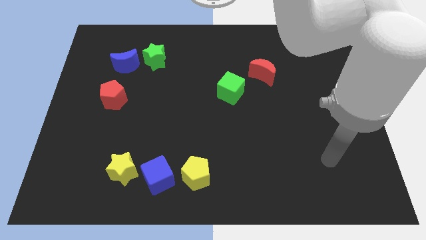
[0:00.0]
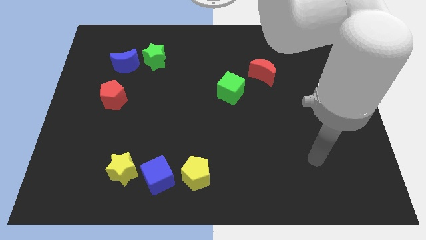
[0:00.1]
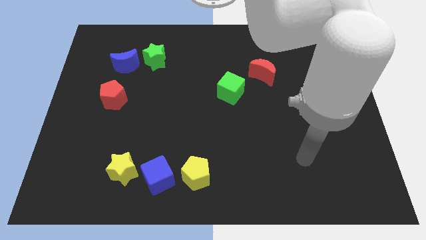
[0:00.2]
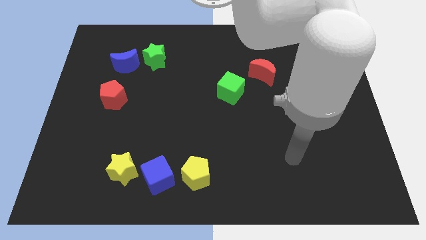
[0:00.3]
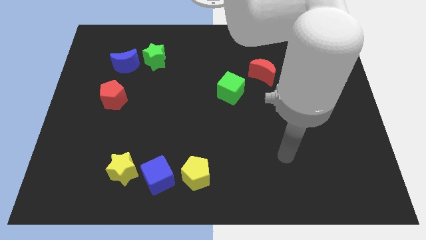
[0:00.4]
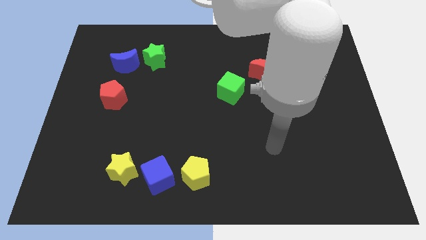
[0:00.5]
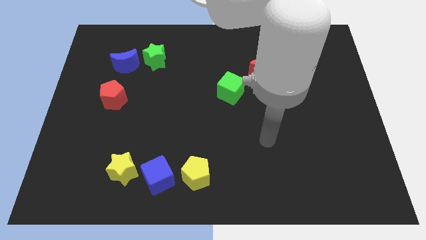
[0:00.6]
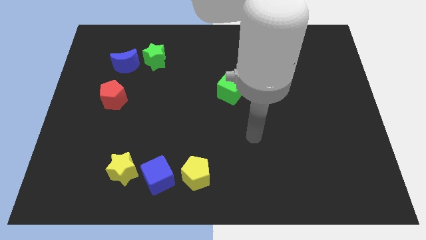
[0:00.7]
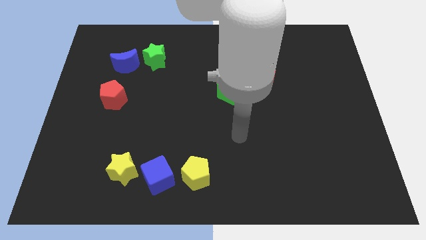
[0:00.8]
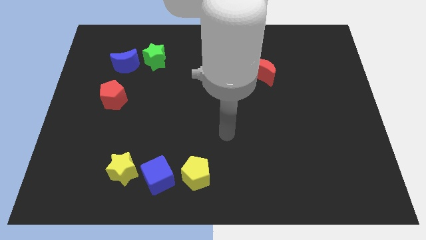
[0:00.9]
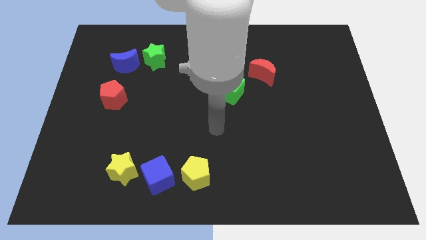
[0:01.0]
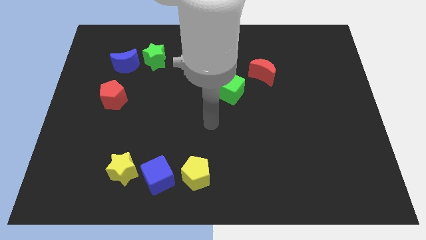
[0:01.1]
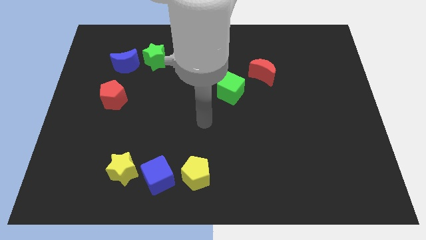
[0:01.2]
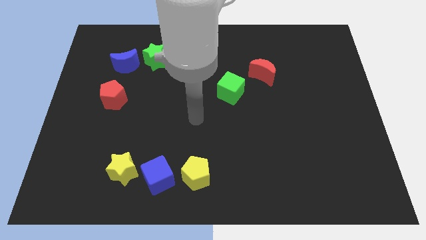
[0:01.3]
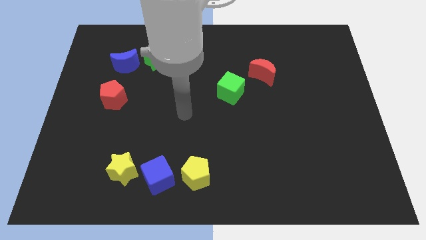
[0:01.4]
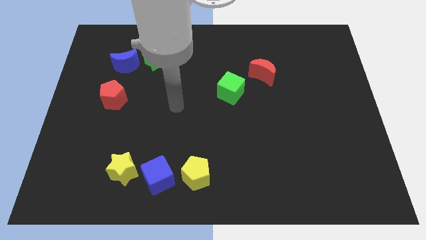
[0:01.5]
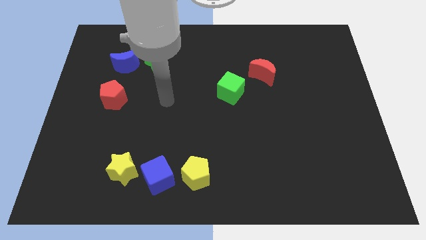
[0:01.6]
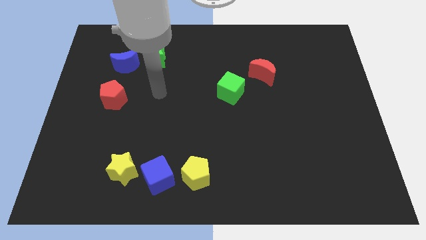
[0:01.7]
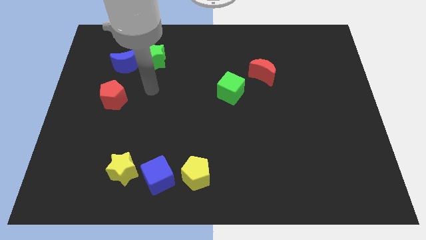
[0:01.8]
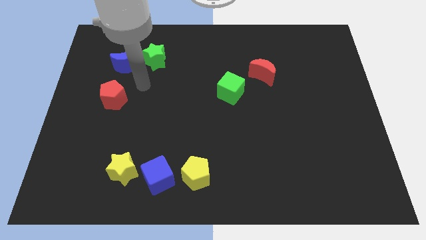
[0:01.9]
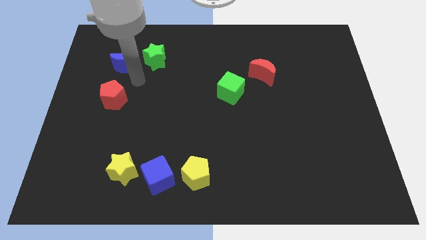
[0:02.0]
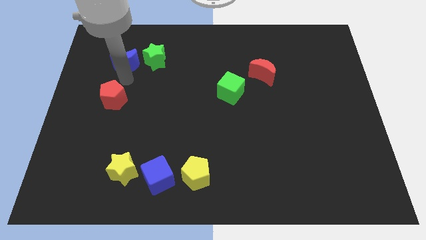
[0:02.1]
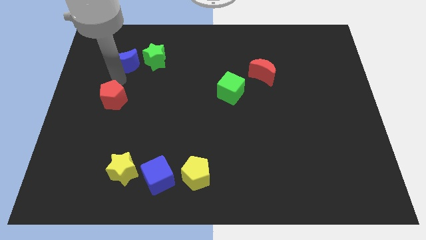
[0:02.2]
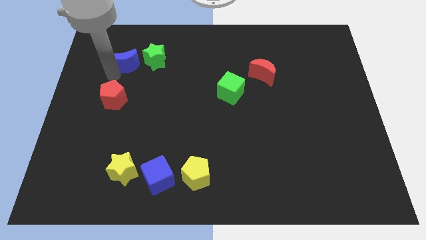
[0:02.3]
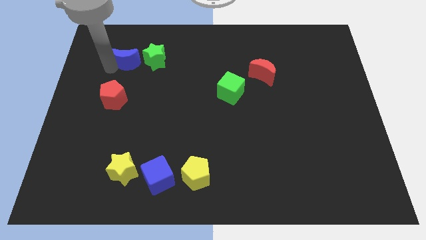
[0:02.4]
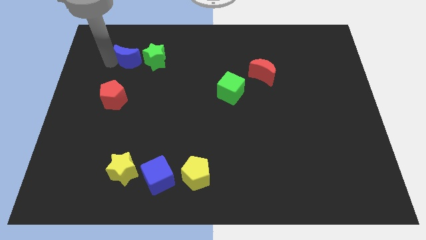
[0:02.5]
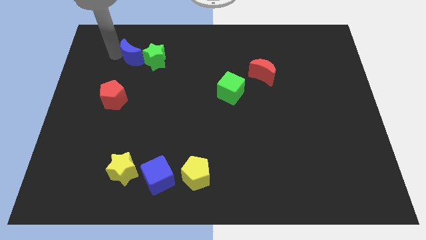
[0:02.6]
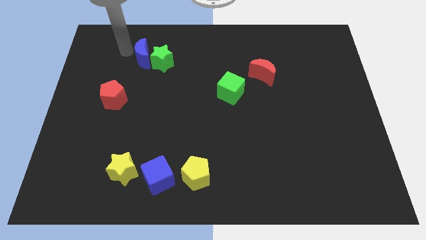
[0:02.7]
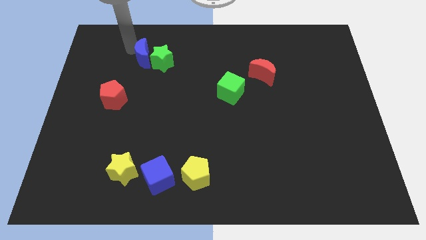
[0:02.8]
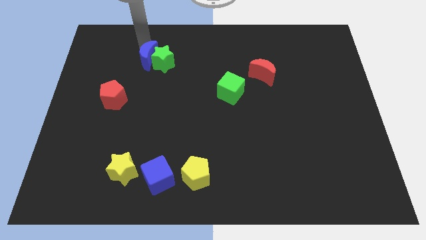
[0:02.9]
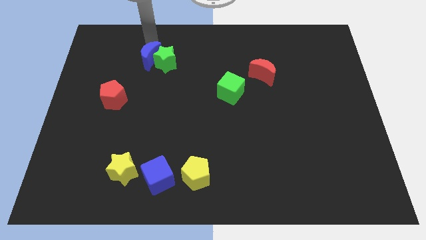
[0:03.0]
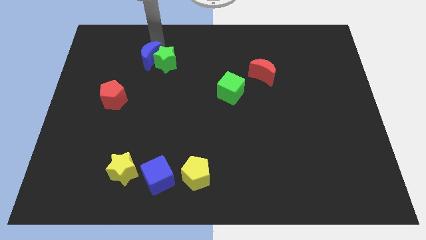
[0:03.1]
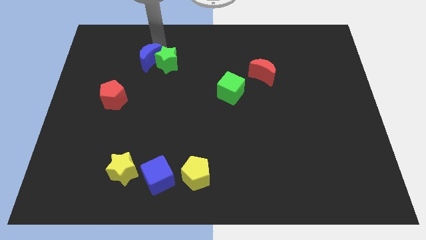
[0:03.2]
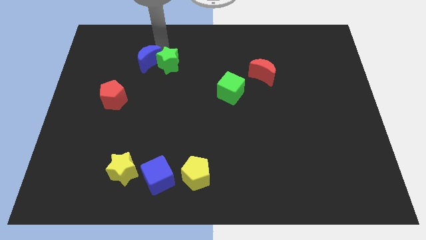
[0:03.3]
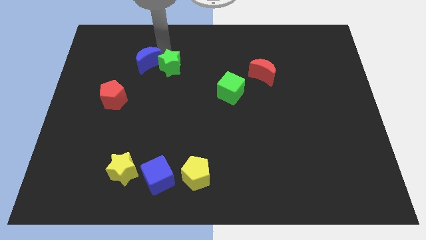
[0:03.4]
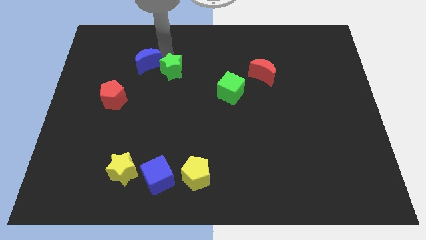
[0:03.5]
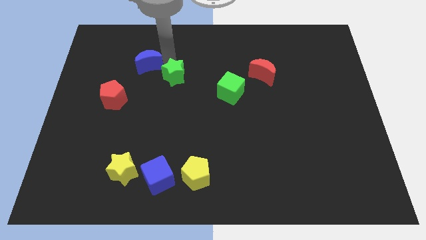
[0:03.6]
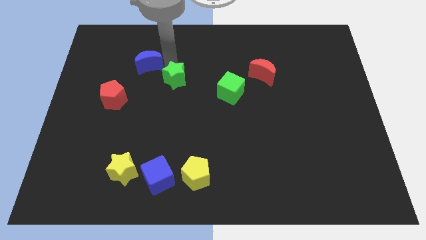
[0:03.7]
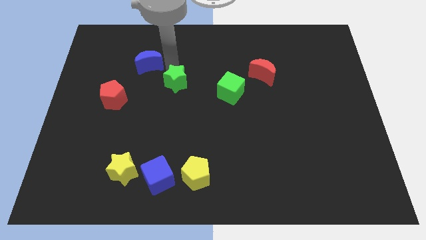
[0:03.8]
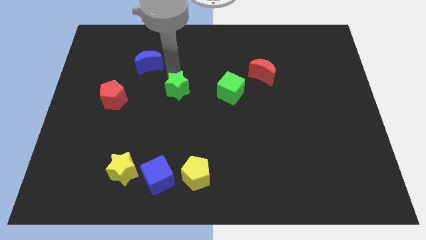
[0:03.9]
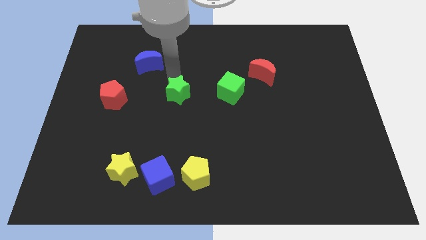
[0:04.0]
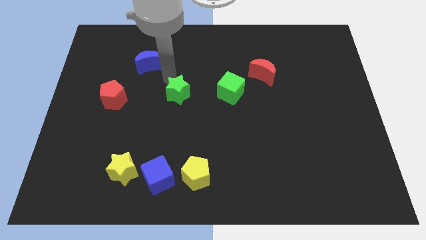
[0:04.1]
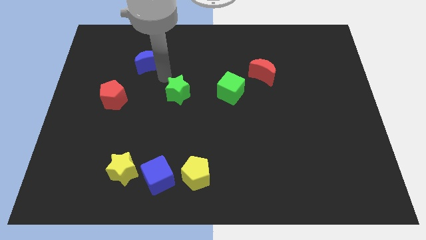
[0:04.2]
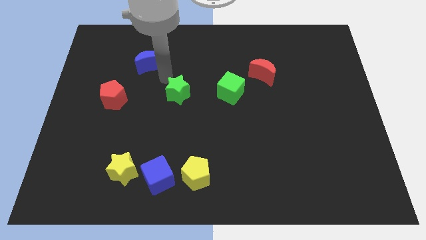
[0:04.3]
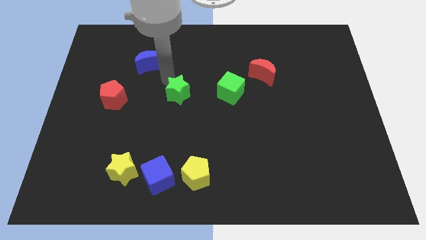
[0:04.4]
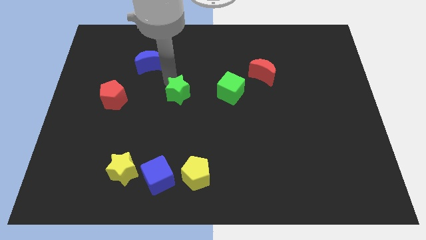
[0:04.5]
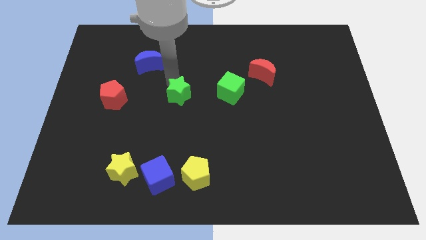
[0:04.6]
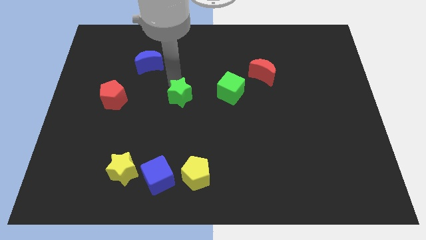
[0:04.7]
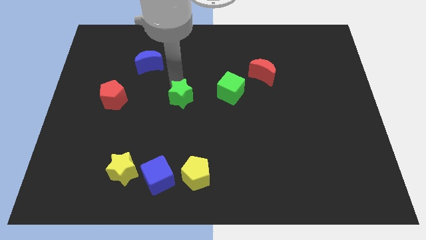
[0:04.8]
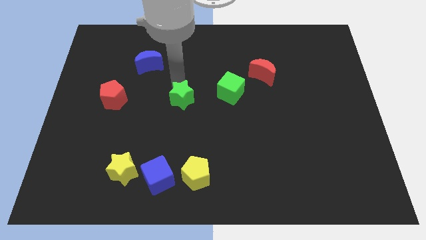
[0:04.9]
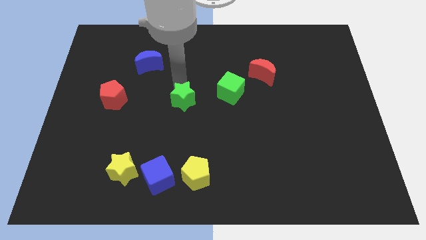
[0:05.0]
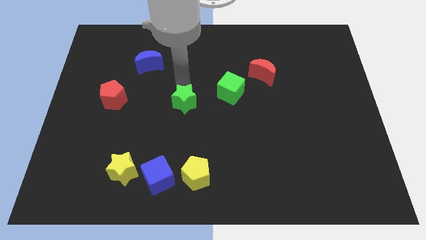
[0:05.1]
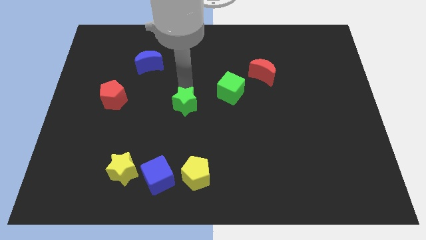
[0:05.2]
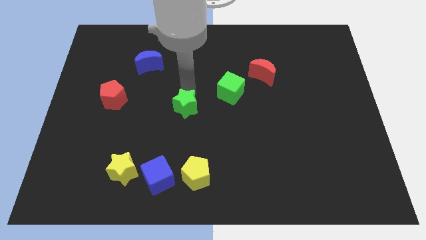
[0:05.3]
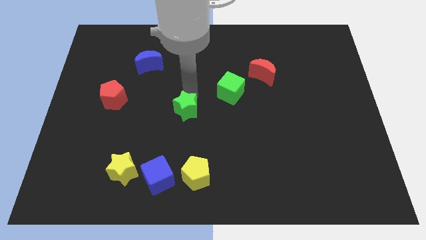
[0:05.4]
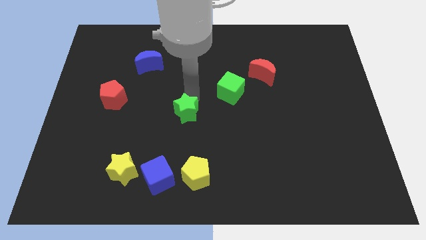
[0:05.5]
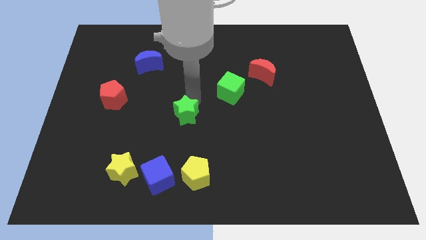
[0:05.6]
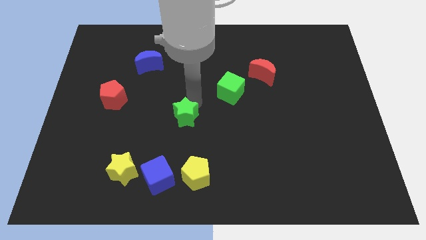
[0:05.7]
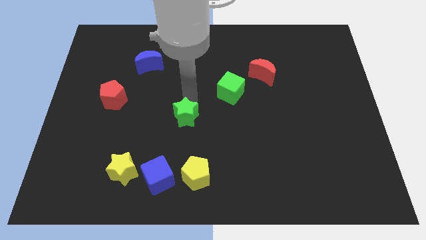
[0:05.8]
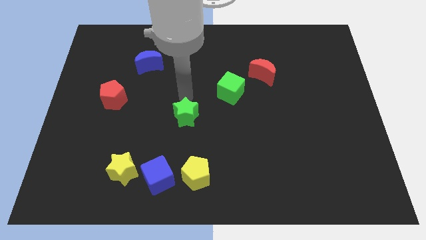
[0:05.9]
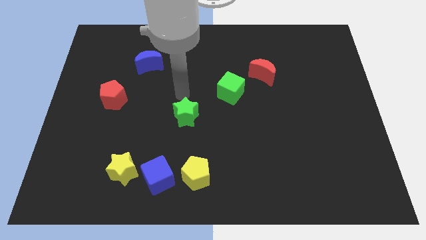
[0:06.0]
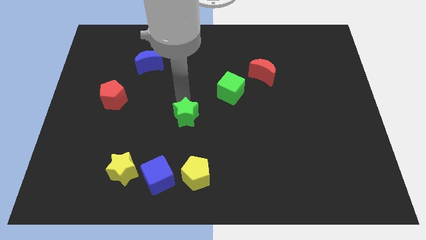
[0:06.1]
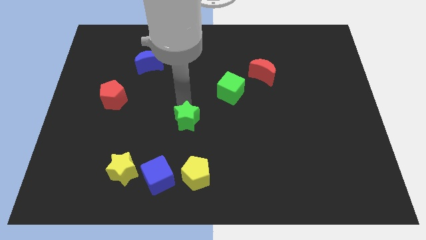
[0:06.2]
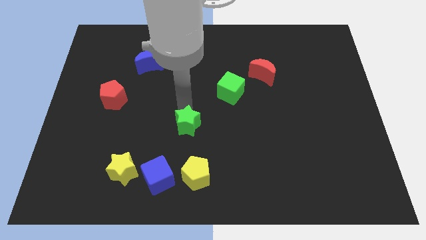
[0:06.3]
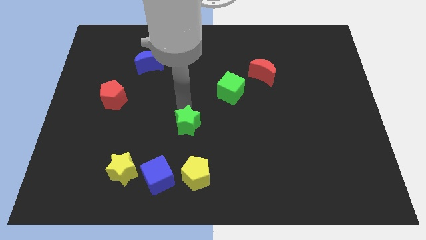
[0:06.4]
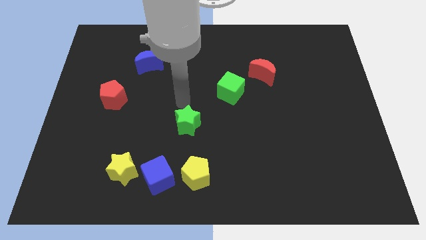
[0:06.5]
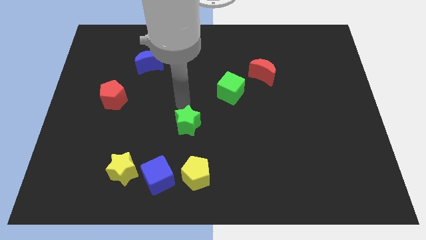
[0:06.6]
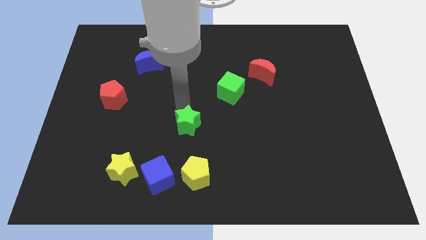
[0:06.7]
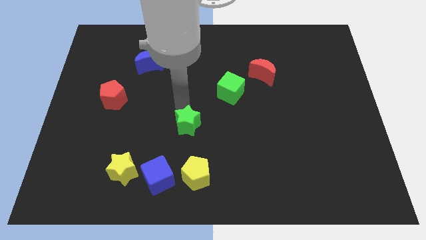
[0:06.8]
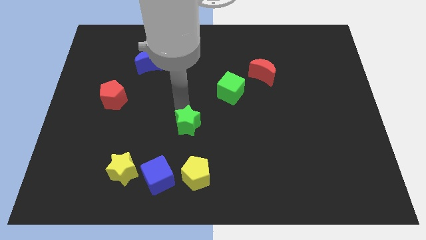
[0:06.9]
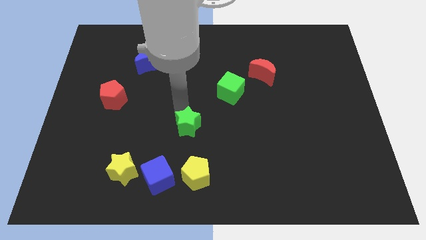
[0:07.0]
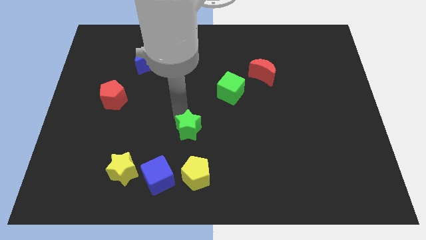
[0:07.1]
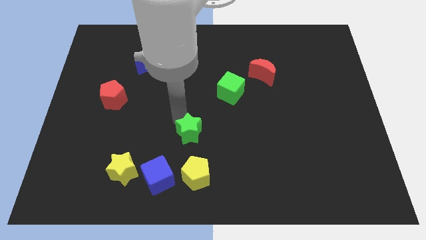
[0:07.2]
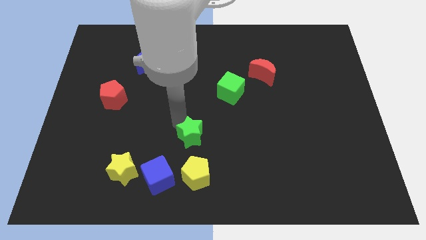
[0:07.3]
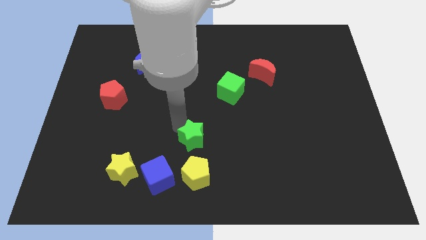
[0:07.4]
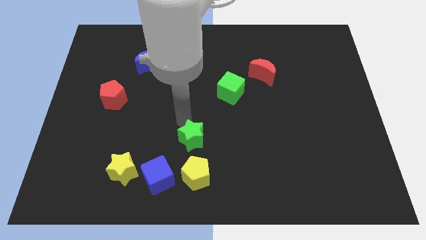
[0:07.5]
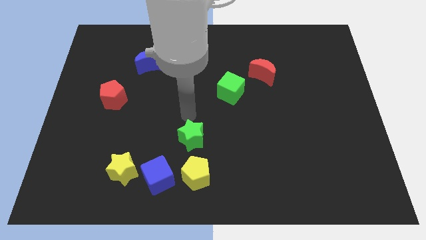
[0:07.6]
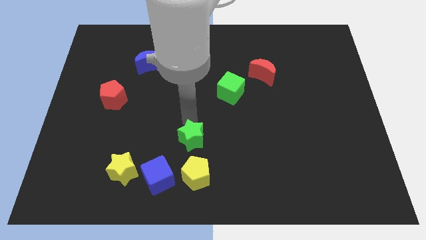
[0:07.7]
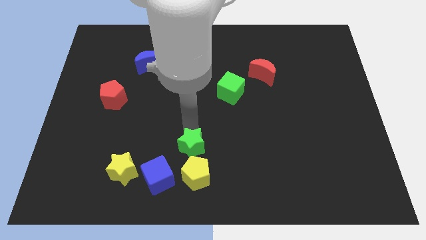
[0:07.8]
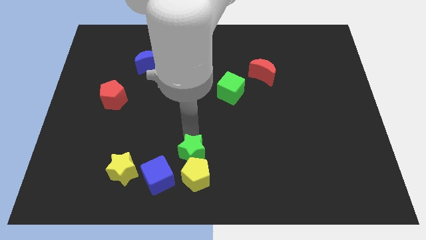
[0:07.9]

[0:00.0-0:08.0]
put the green star towards the yellow pentagon
